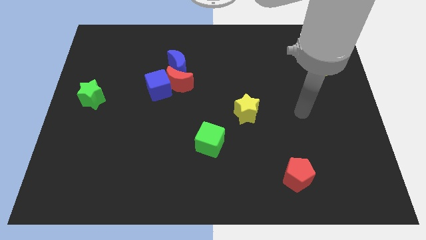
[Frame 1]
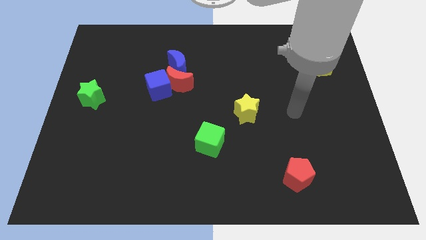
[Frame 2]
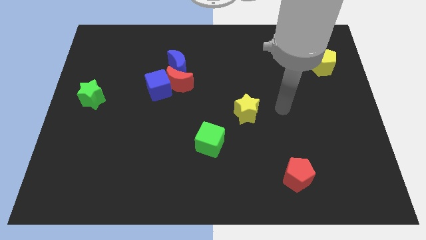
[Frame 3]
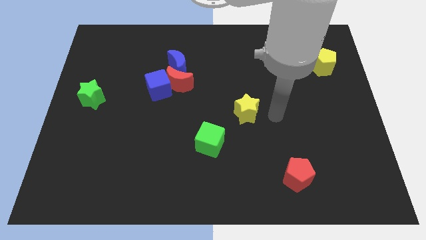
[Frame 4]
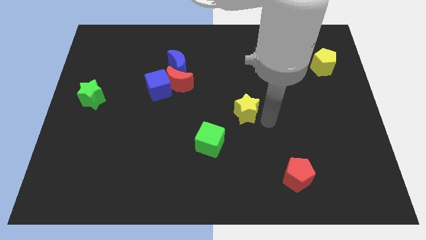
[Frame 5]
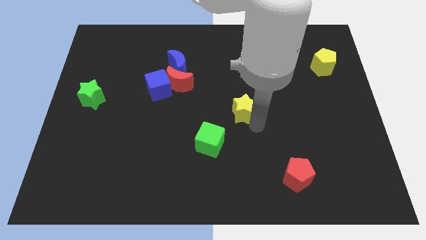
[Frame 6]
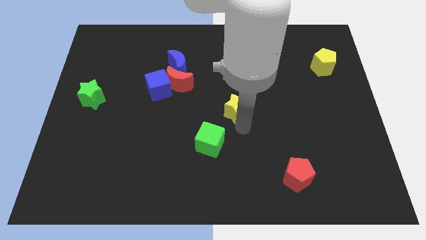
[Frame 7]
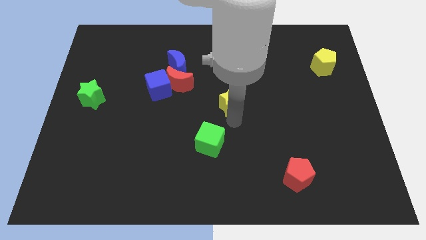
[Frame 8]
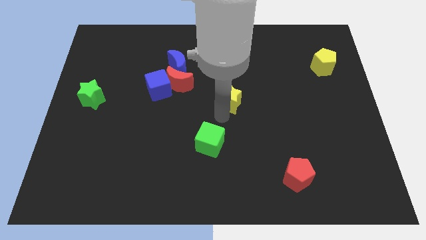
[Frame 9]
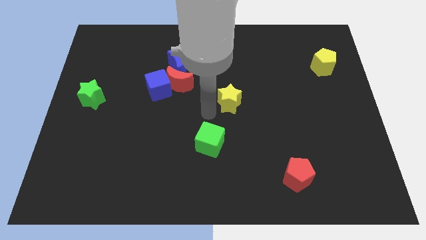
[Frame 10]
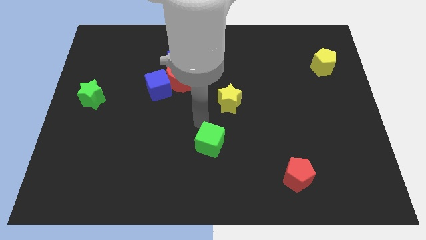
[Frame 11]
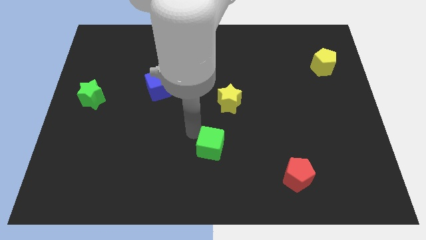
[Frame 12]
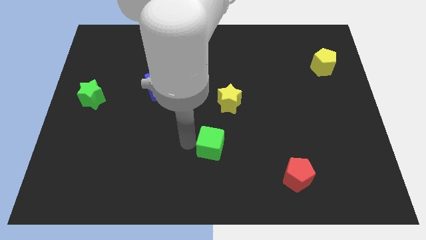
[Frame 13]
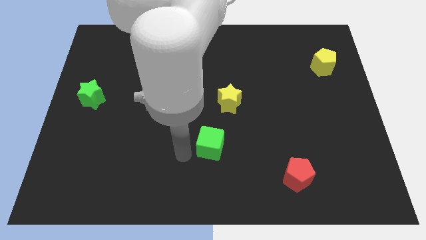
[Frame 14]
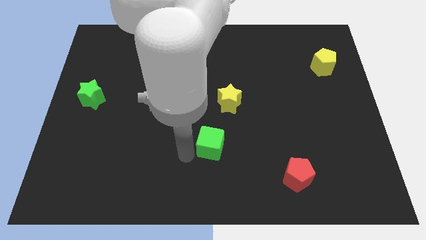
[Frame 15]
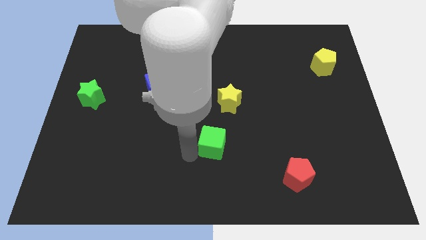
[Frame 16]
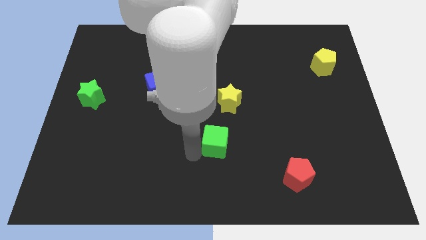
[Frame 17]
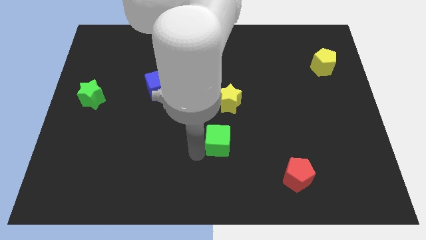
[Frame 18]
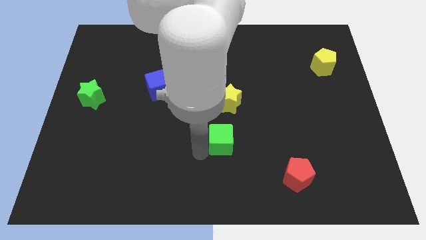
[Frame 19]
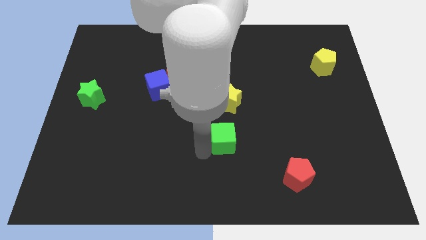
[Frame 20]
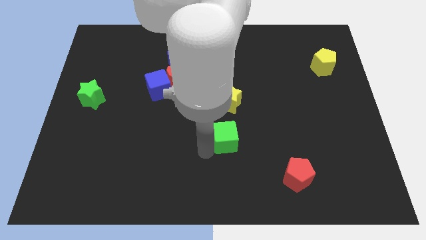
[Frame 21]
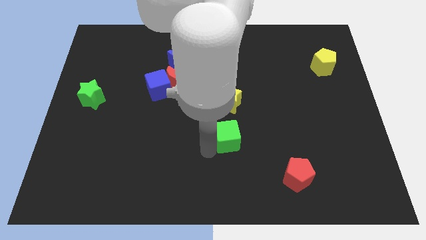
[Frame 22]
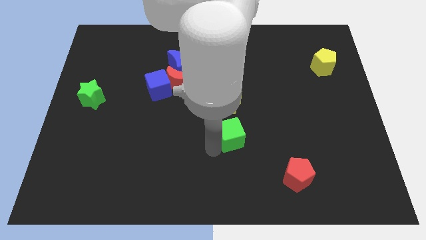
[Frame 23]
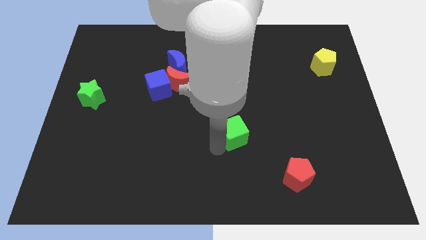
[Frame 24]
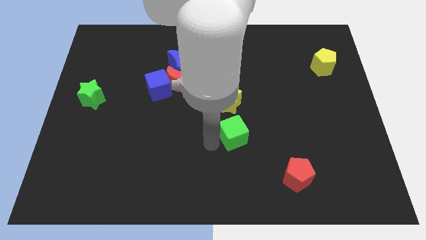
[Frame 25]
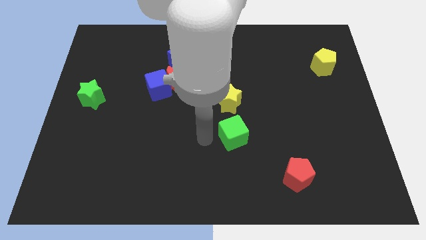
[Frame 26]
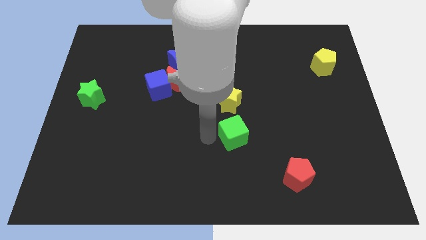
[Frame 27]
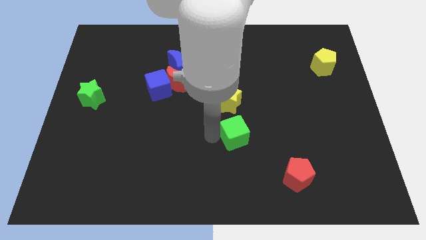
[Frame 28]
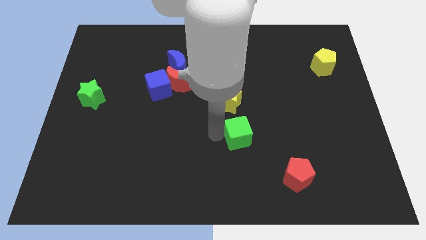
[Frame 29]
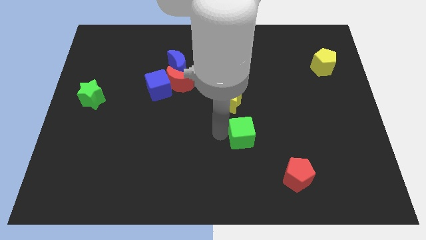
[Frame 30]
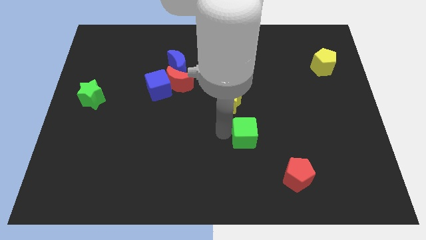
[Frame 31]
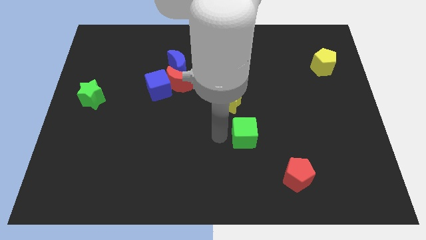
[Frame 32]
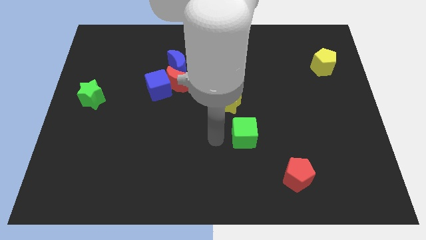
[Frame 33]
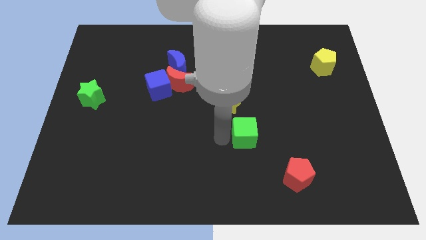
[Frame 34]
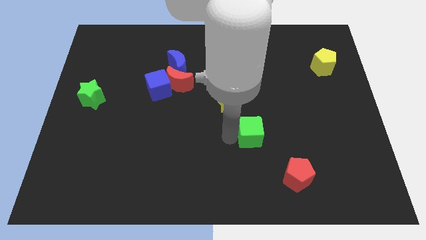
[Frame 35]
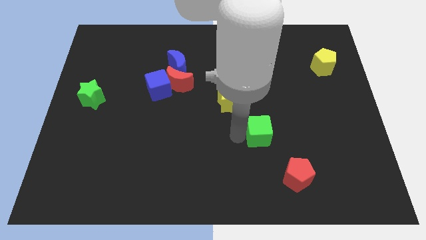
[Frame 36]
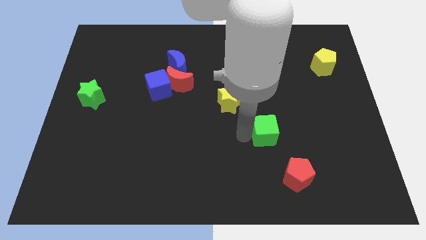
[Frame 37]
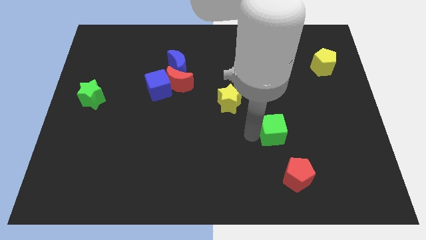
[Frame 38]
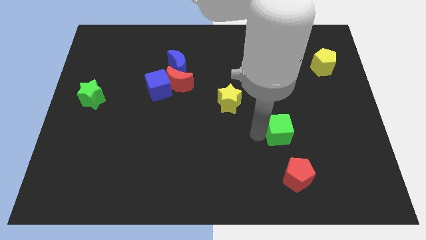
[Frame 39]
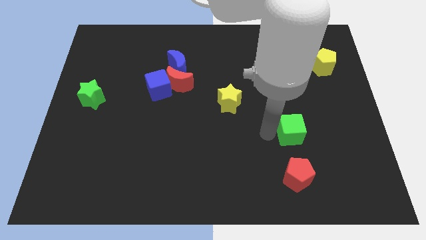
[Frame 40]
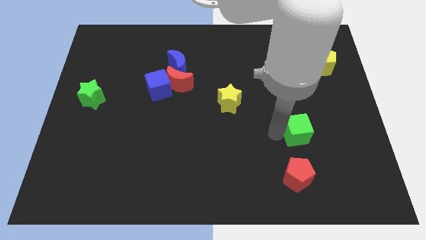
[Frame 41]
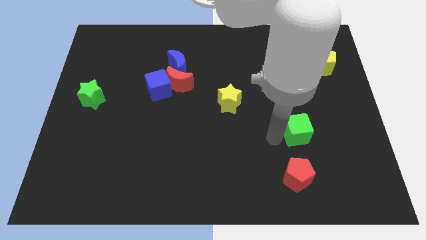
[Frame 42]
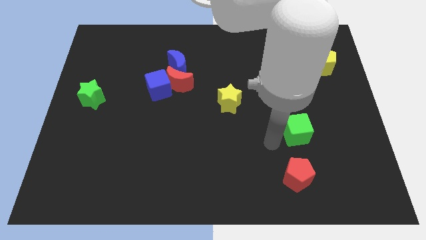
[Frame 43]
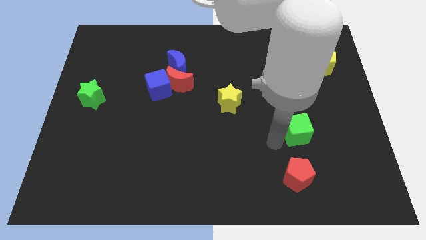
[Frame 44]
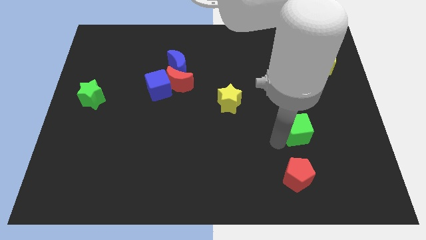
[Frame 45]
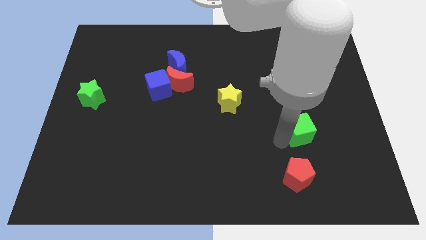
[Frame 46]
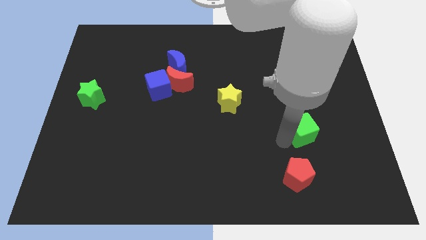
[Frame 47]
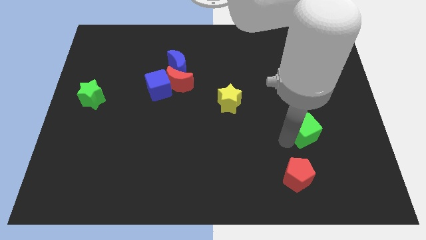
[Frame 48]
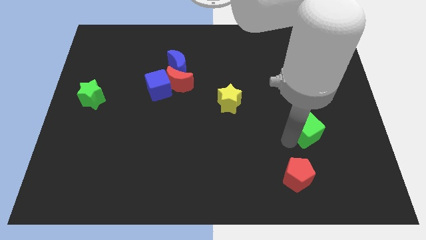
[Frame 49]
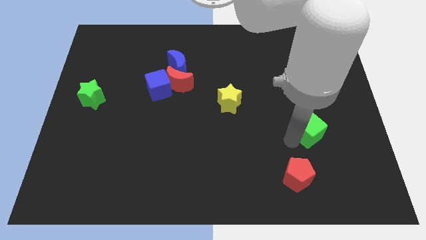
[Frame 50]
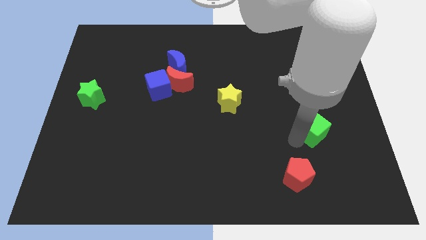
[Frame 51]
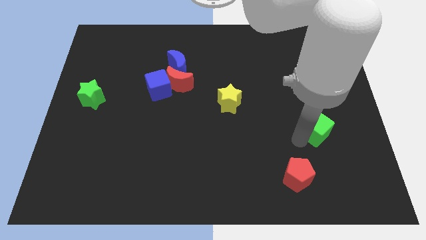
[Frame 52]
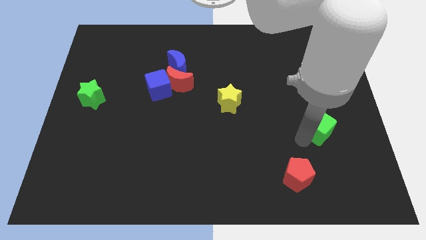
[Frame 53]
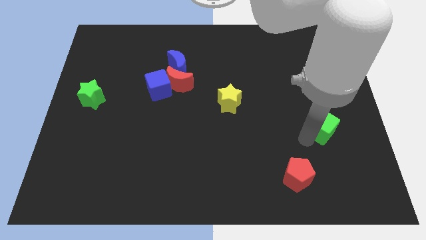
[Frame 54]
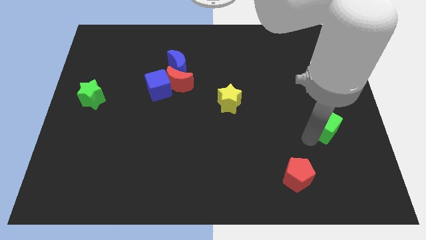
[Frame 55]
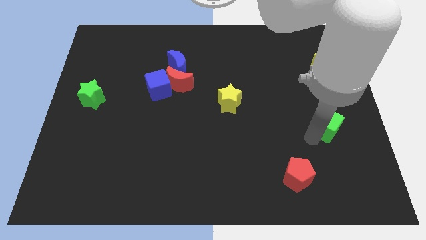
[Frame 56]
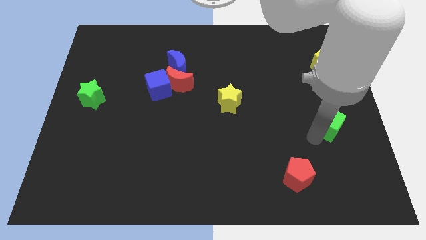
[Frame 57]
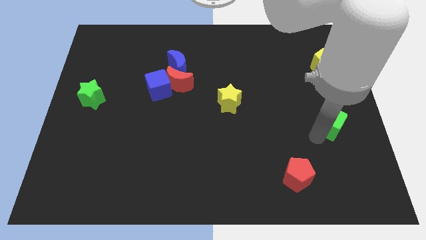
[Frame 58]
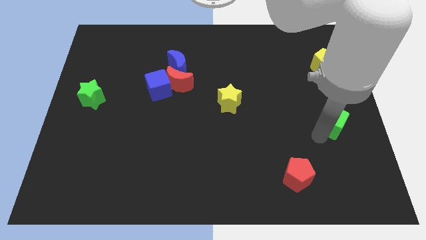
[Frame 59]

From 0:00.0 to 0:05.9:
put the green cube to the right side
